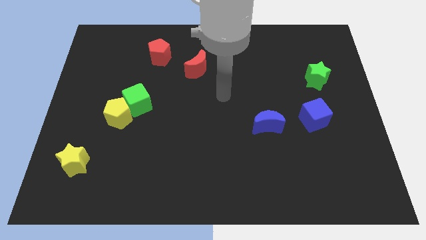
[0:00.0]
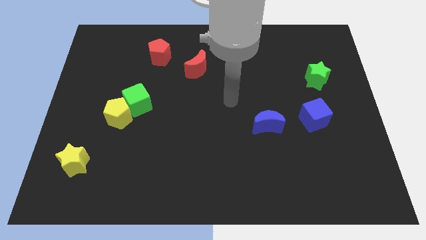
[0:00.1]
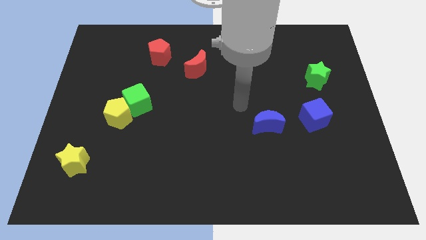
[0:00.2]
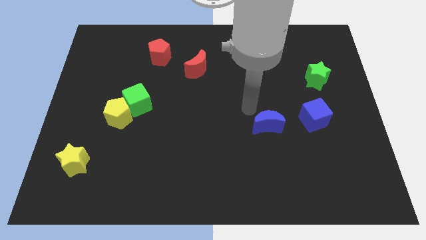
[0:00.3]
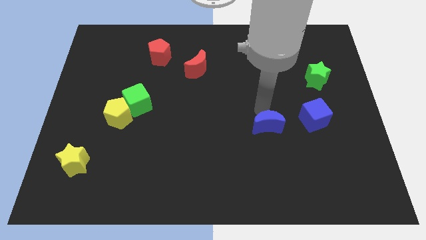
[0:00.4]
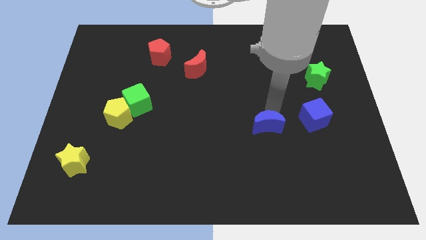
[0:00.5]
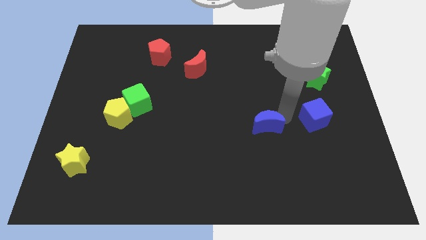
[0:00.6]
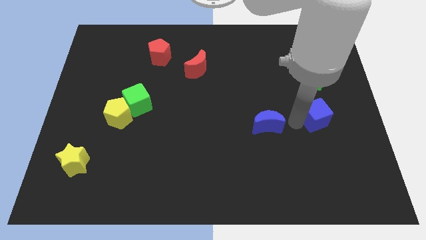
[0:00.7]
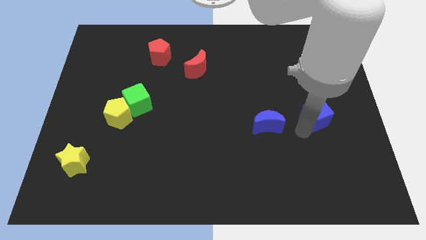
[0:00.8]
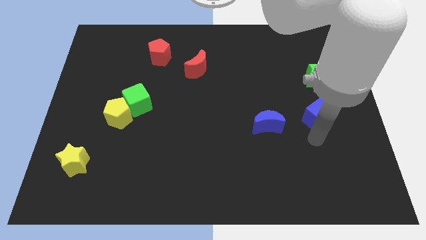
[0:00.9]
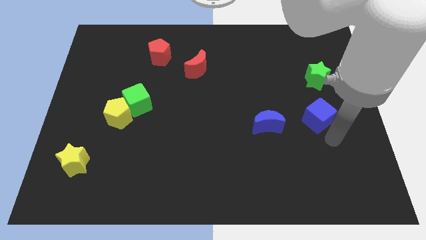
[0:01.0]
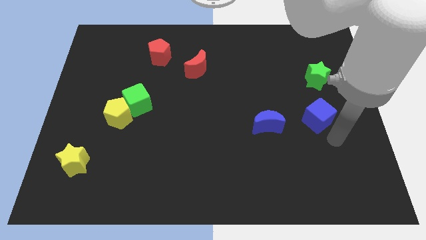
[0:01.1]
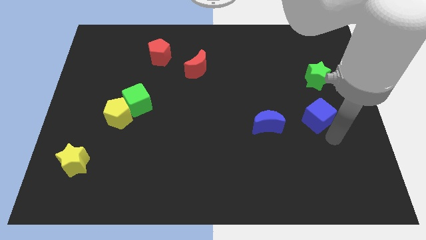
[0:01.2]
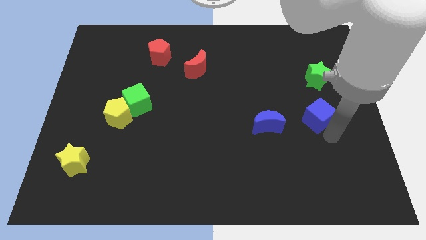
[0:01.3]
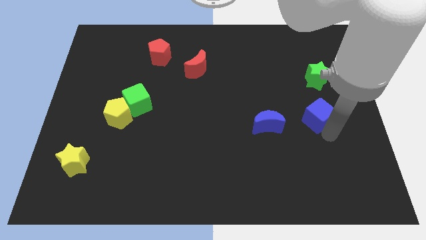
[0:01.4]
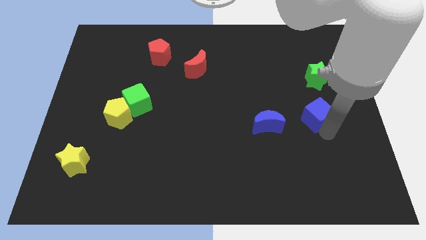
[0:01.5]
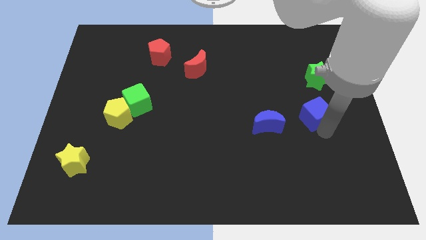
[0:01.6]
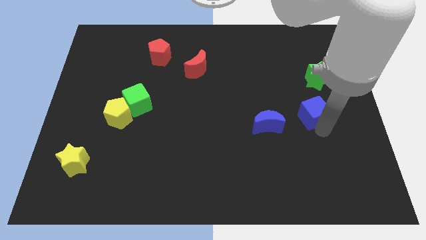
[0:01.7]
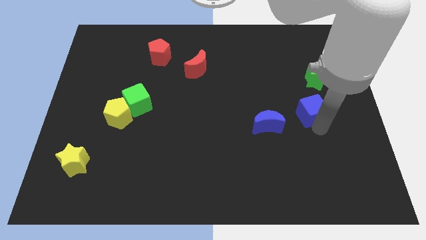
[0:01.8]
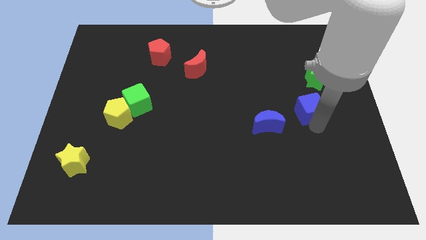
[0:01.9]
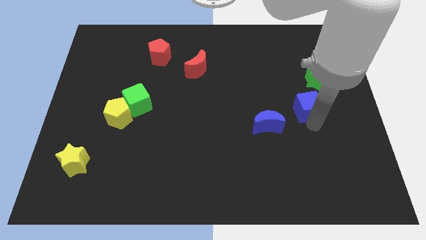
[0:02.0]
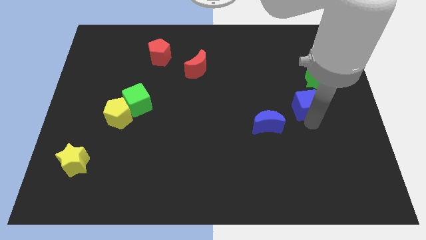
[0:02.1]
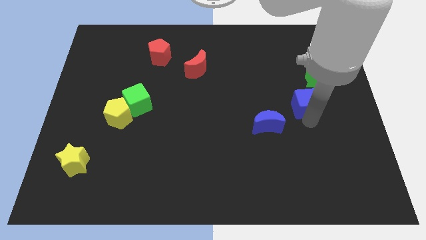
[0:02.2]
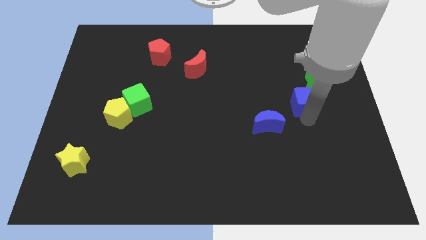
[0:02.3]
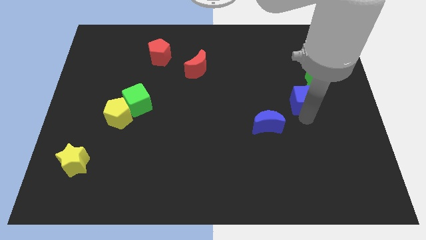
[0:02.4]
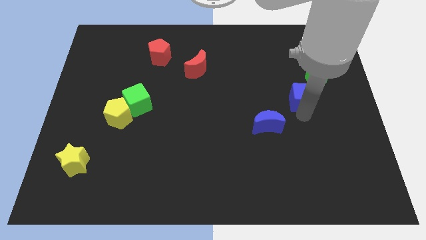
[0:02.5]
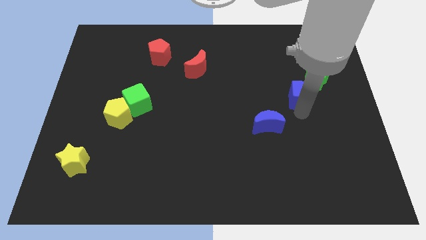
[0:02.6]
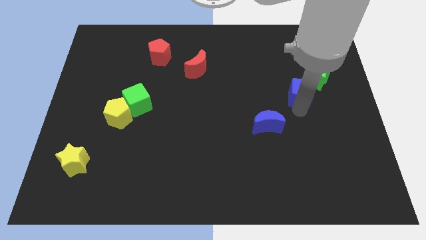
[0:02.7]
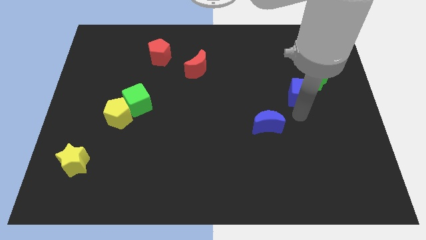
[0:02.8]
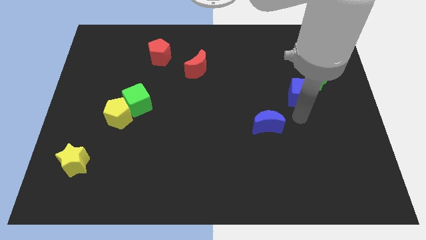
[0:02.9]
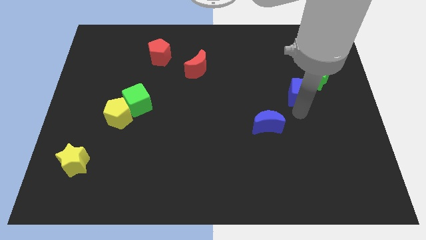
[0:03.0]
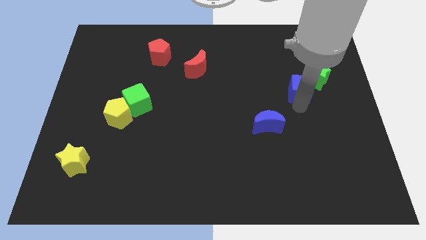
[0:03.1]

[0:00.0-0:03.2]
slightly move the blue cube up

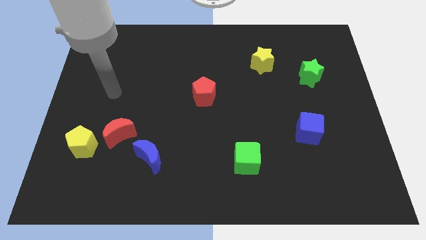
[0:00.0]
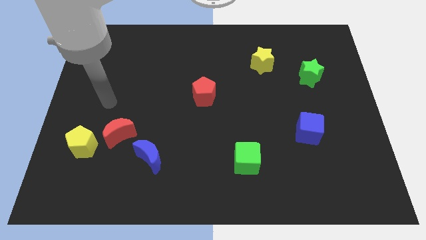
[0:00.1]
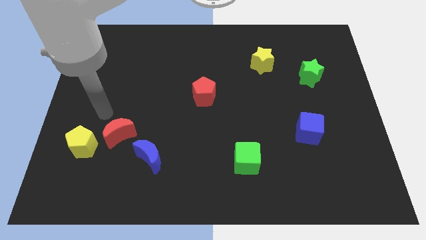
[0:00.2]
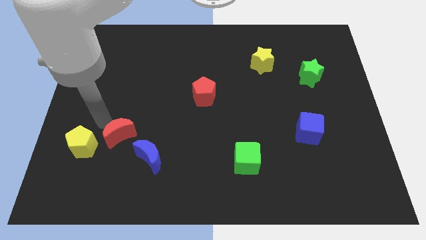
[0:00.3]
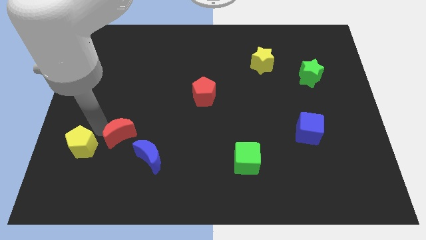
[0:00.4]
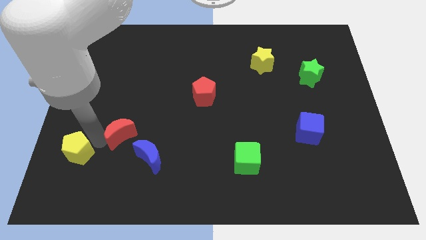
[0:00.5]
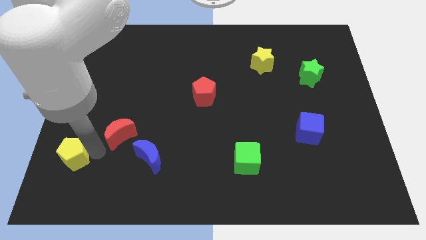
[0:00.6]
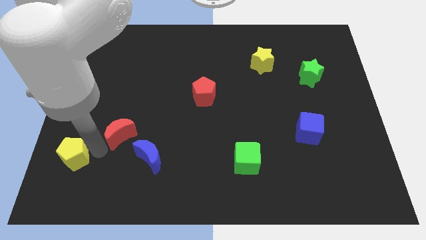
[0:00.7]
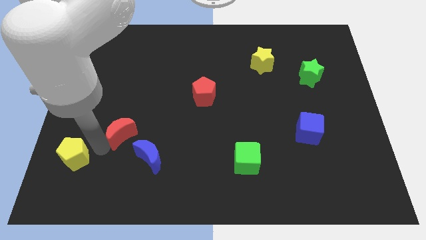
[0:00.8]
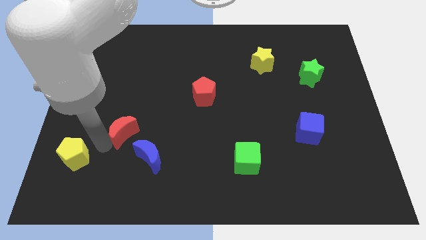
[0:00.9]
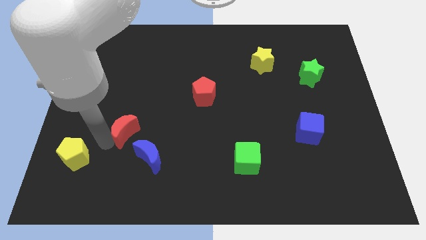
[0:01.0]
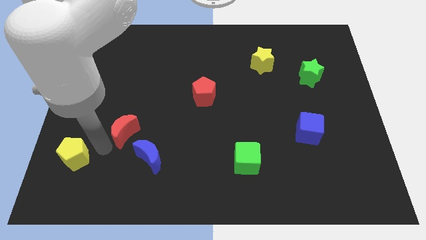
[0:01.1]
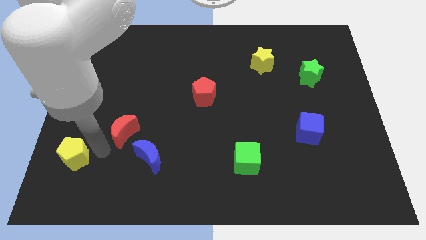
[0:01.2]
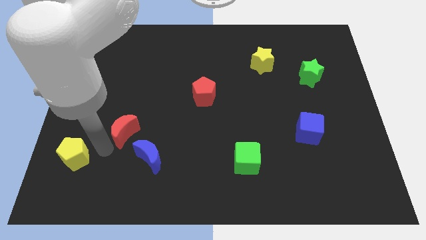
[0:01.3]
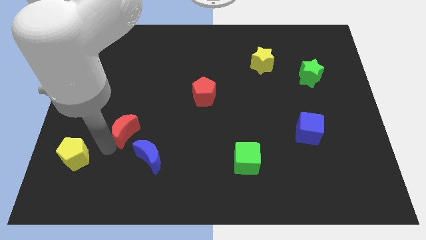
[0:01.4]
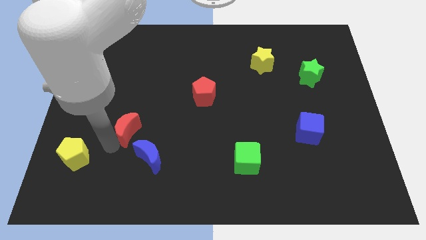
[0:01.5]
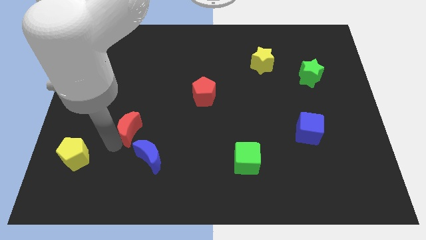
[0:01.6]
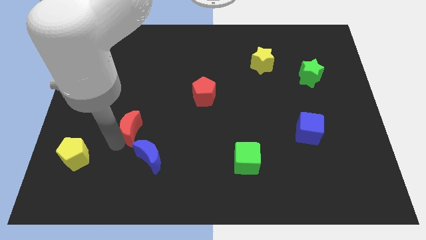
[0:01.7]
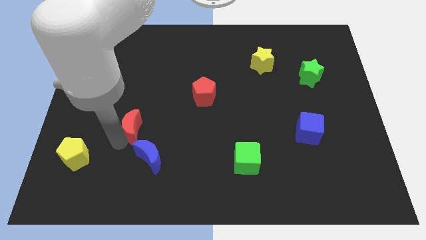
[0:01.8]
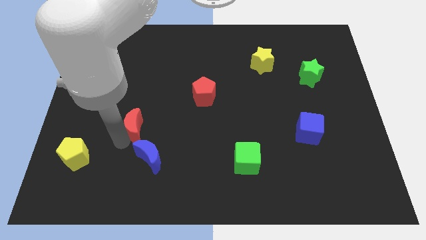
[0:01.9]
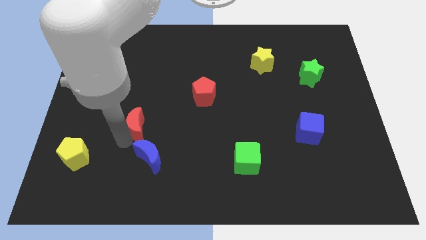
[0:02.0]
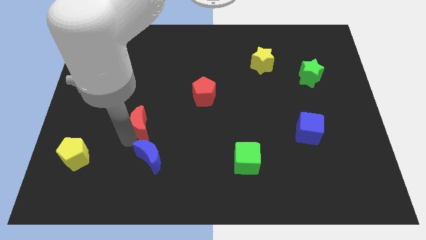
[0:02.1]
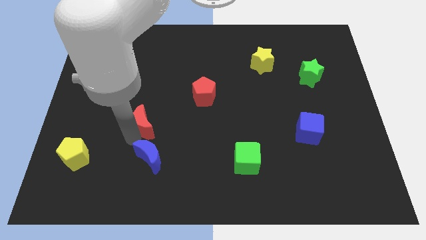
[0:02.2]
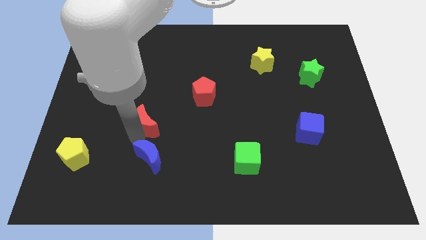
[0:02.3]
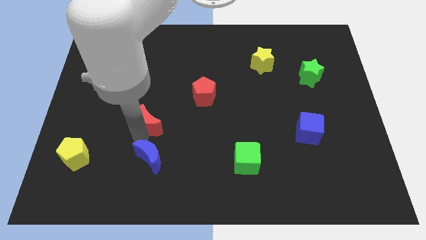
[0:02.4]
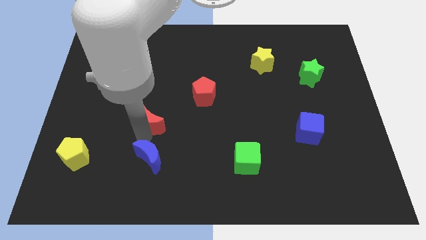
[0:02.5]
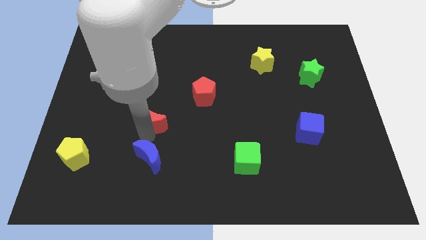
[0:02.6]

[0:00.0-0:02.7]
push the red moon a bit up and to the right diagonally

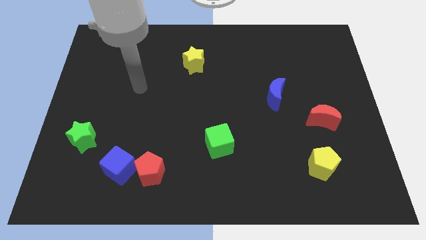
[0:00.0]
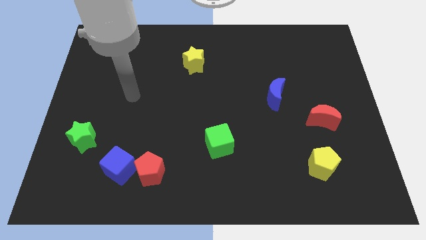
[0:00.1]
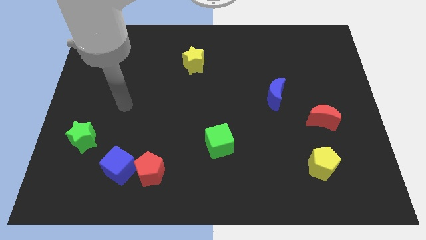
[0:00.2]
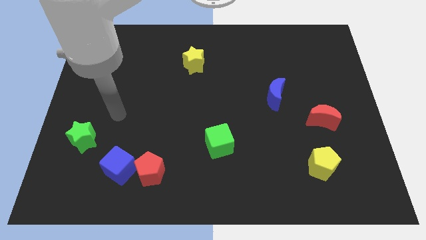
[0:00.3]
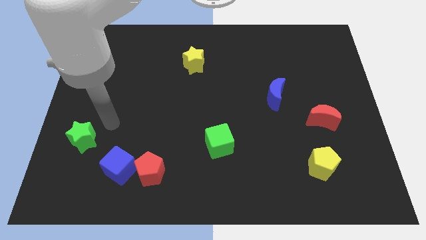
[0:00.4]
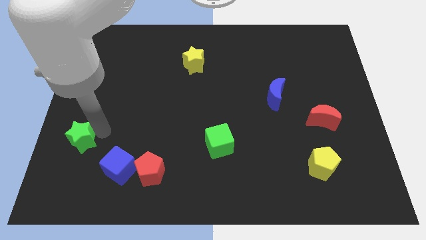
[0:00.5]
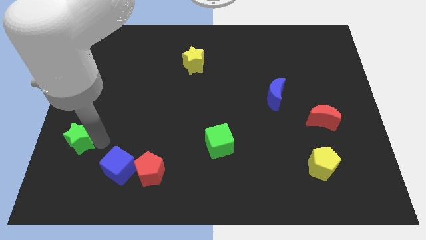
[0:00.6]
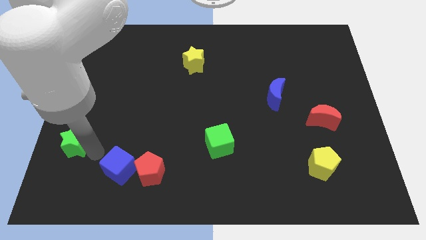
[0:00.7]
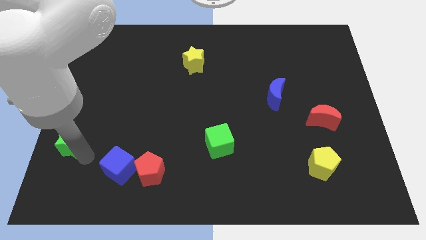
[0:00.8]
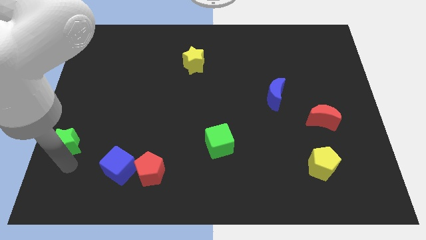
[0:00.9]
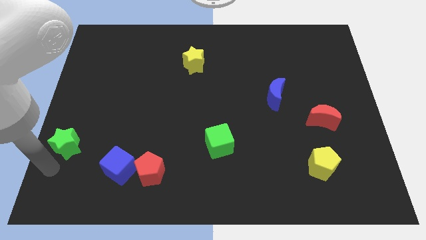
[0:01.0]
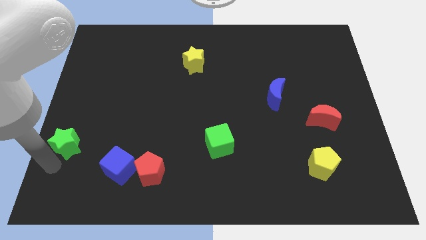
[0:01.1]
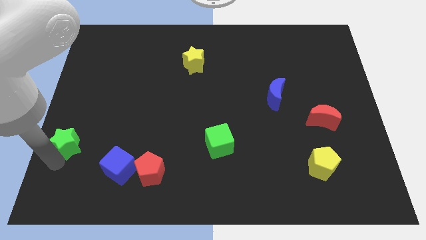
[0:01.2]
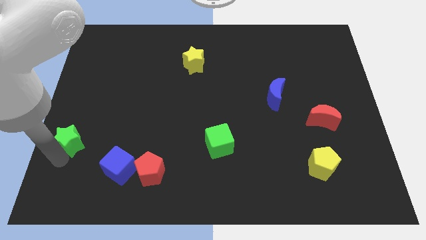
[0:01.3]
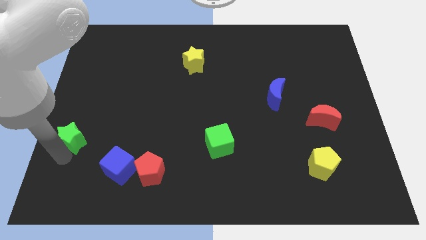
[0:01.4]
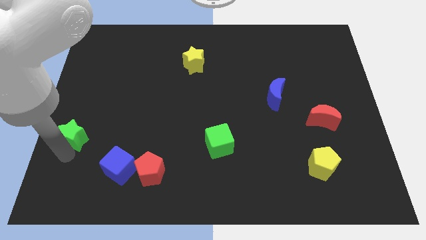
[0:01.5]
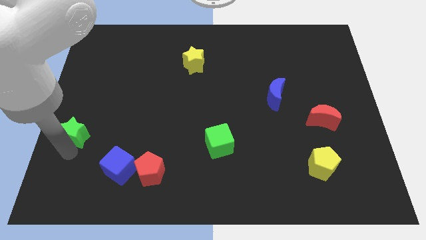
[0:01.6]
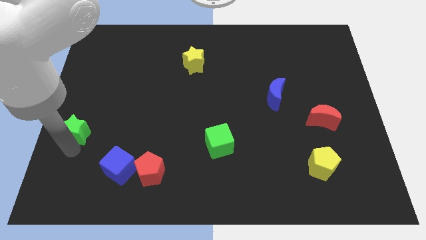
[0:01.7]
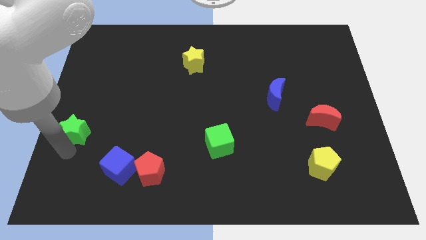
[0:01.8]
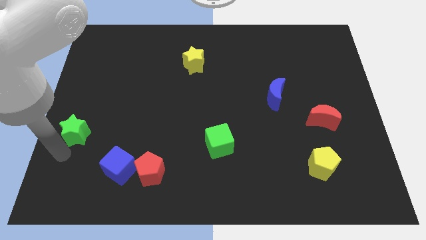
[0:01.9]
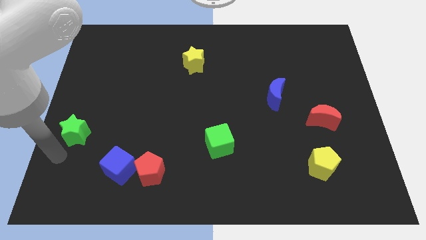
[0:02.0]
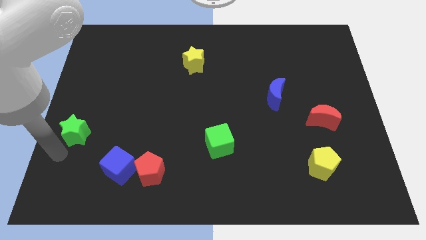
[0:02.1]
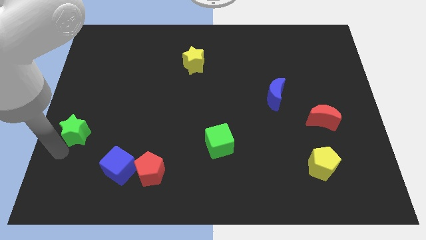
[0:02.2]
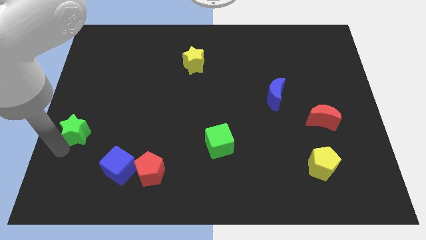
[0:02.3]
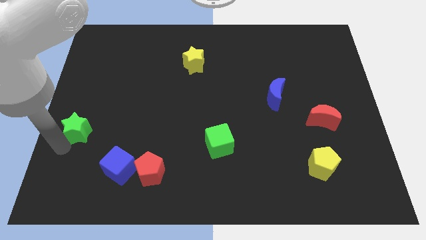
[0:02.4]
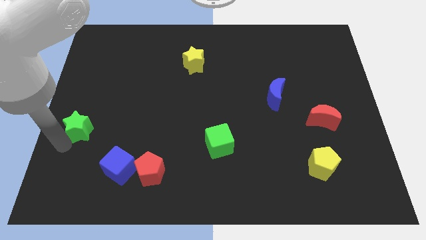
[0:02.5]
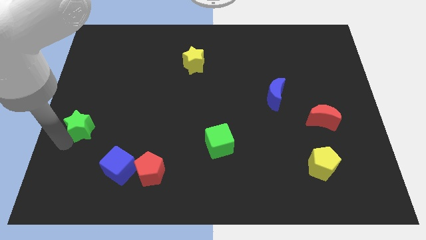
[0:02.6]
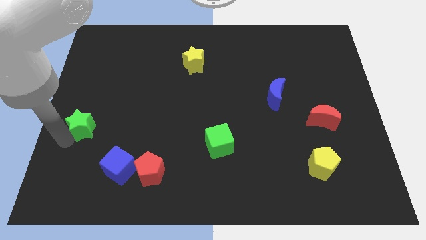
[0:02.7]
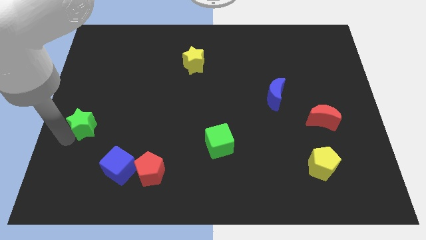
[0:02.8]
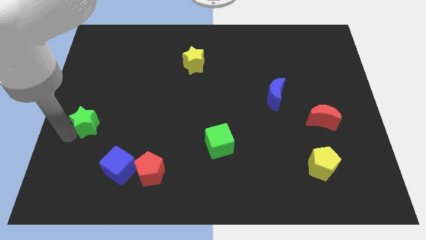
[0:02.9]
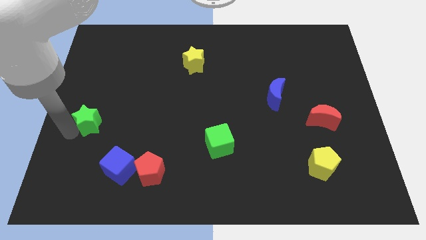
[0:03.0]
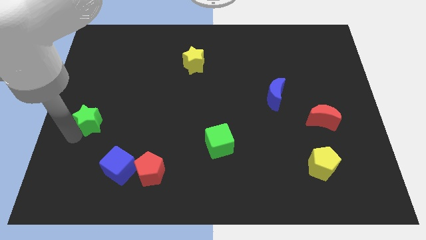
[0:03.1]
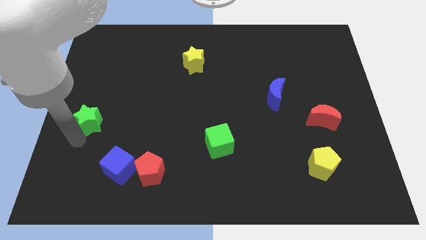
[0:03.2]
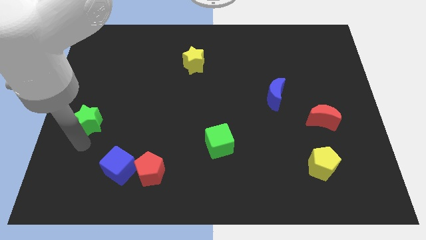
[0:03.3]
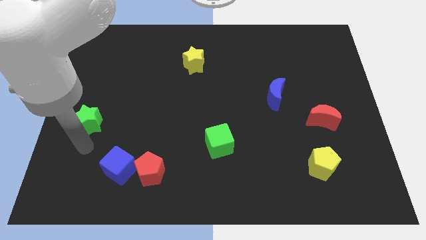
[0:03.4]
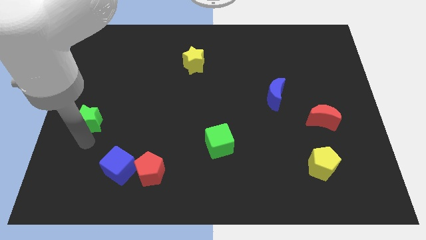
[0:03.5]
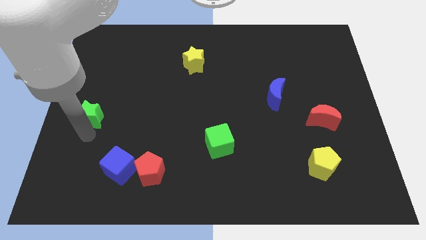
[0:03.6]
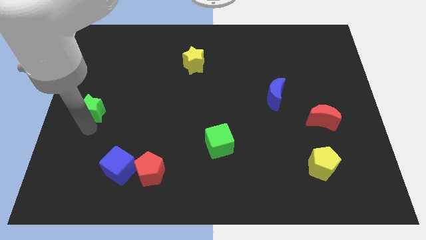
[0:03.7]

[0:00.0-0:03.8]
slightly move the green star upwards
